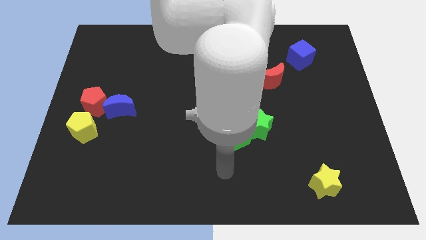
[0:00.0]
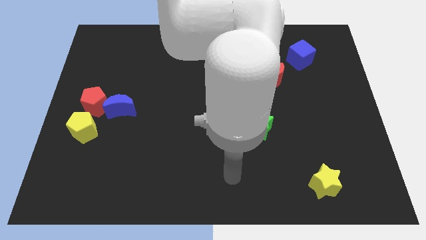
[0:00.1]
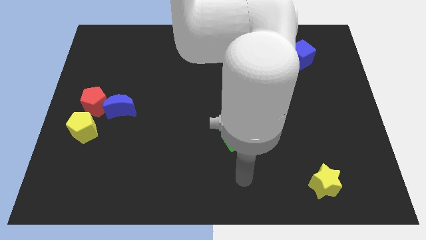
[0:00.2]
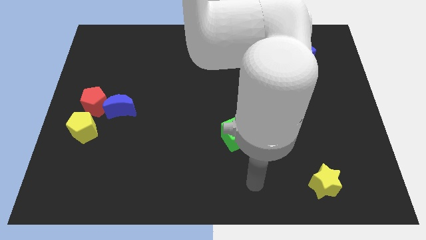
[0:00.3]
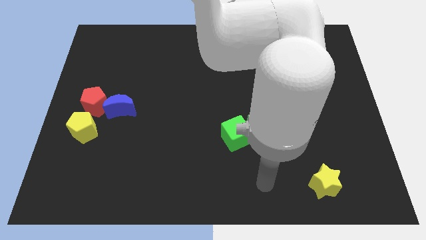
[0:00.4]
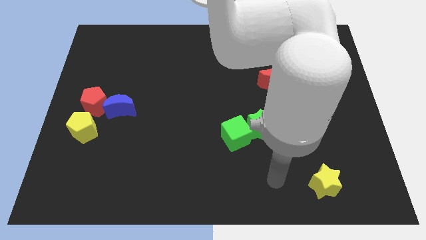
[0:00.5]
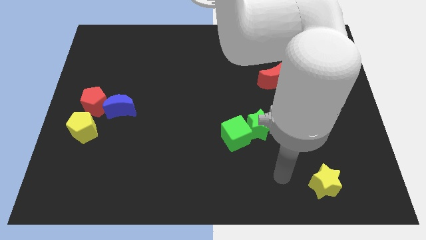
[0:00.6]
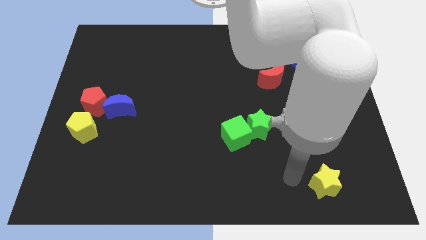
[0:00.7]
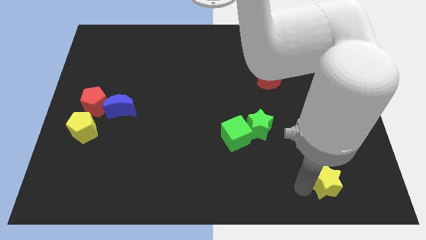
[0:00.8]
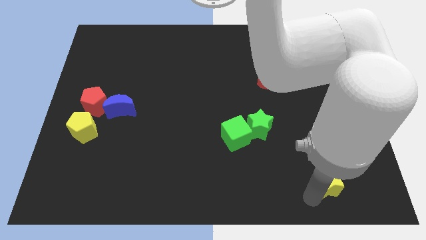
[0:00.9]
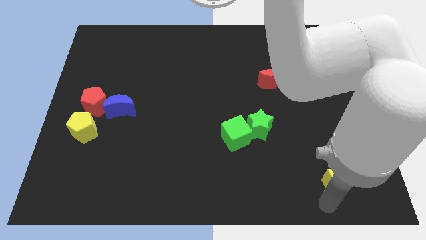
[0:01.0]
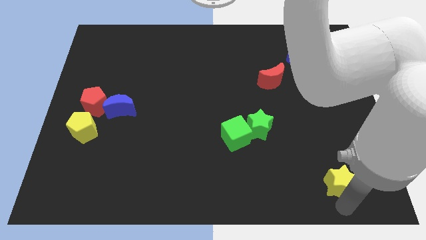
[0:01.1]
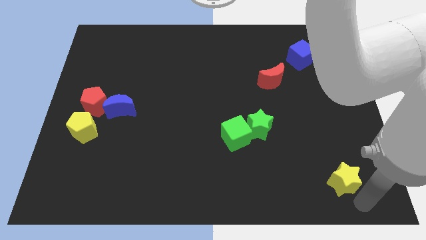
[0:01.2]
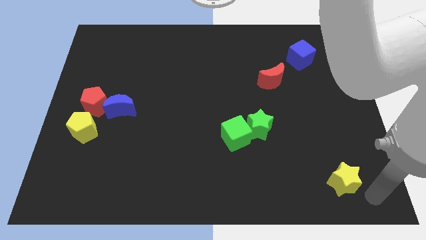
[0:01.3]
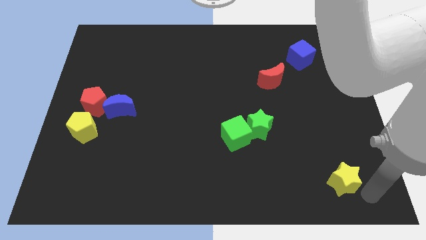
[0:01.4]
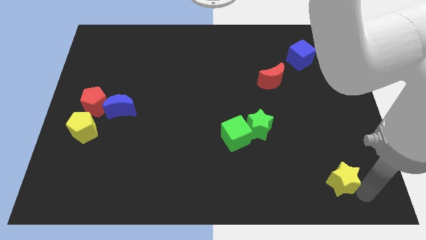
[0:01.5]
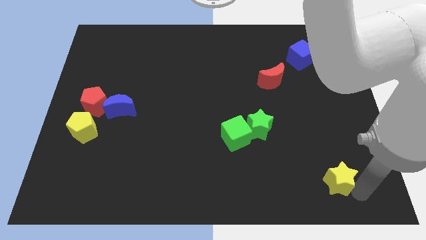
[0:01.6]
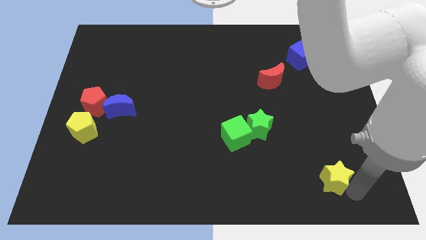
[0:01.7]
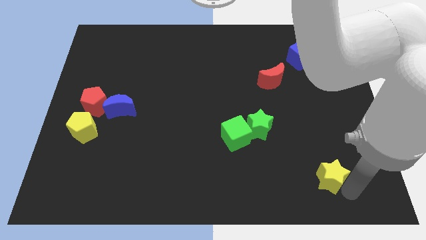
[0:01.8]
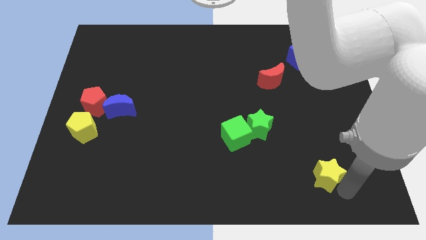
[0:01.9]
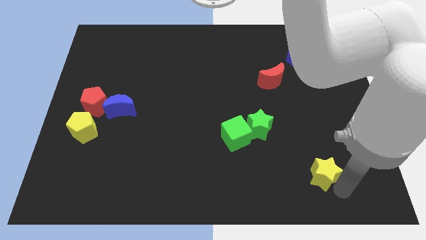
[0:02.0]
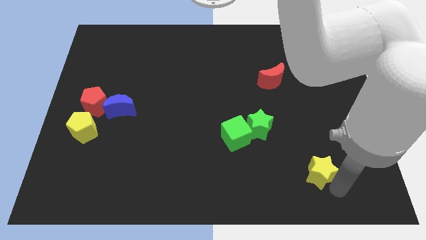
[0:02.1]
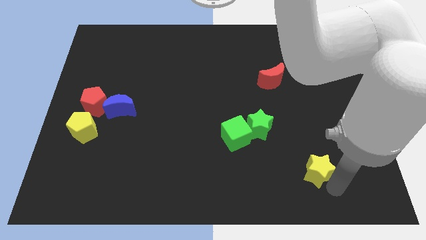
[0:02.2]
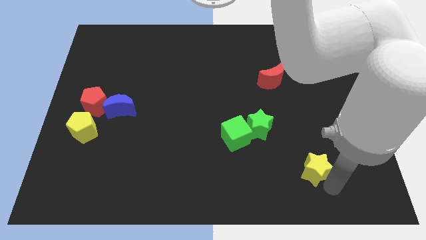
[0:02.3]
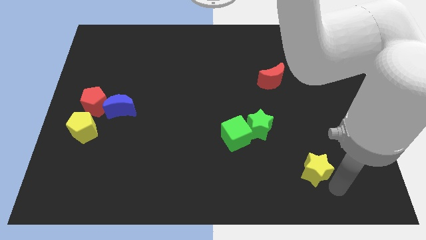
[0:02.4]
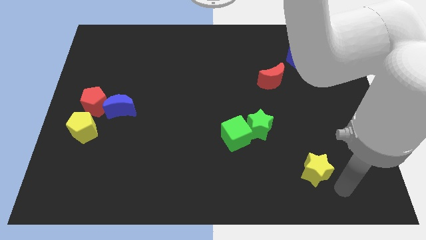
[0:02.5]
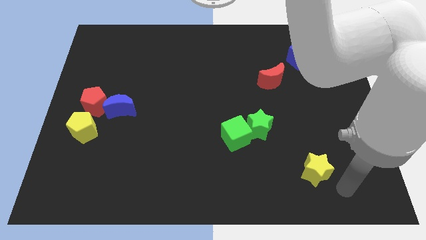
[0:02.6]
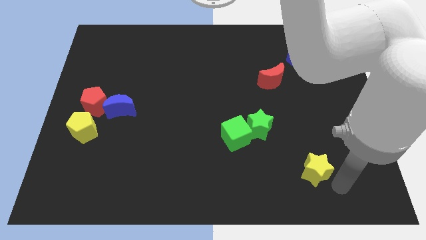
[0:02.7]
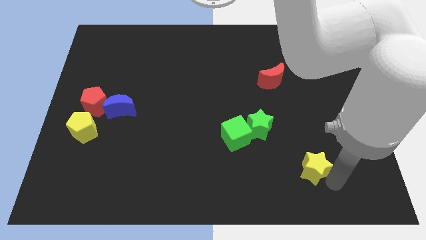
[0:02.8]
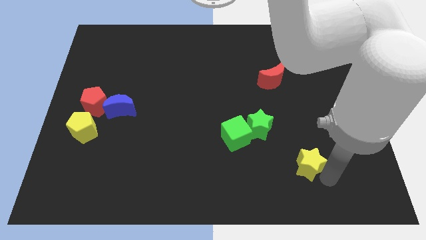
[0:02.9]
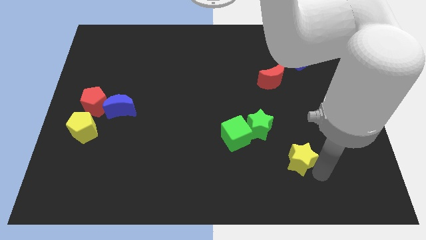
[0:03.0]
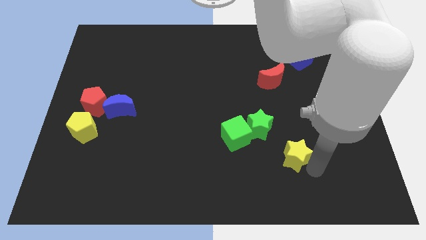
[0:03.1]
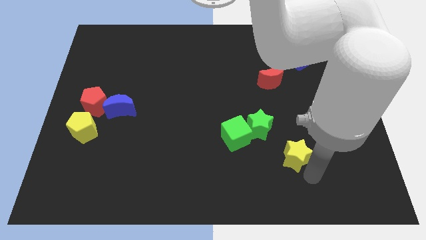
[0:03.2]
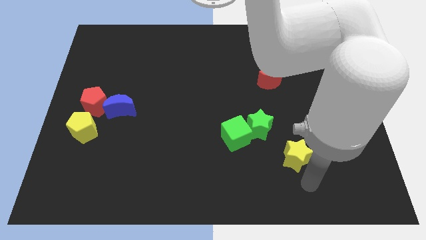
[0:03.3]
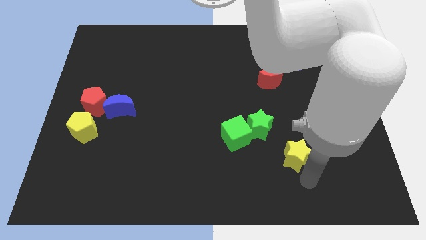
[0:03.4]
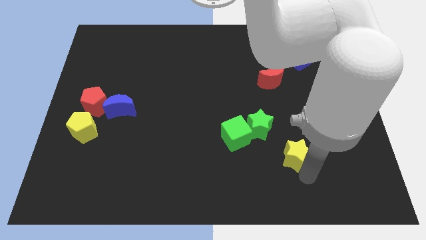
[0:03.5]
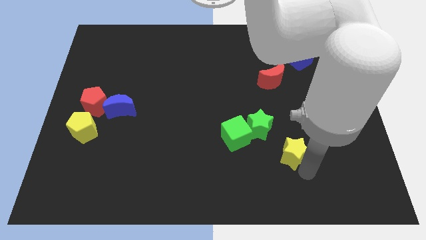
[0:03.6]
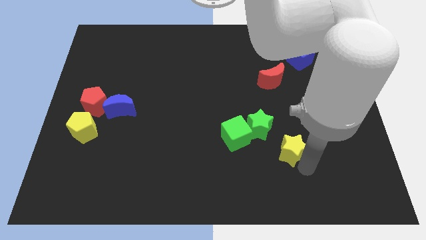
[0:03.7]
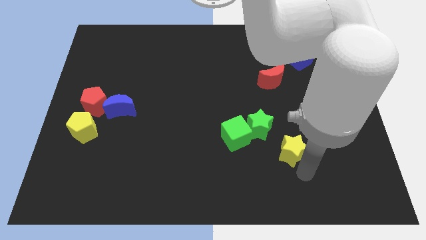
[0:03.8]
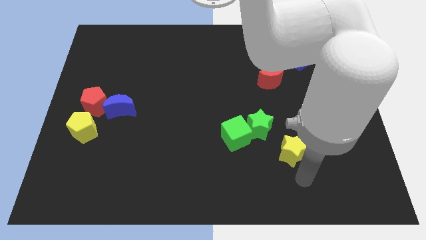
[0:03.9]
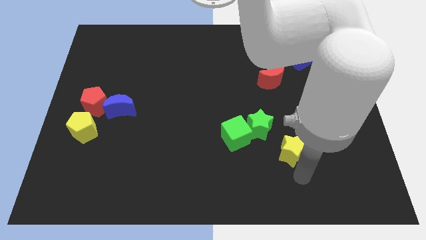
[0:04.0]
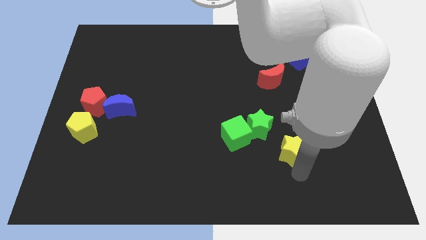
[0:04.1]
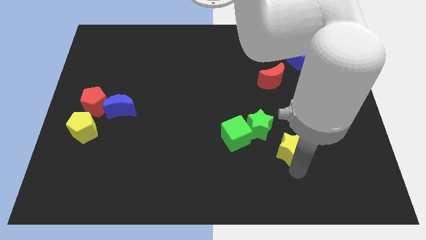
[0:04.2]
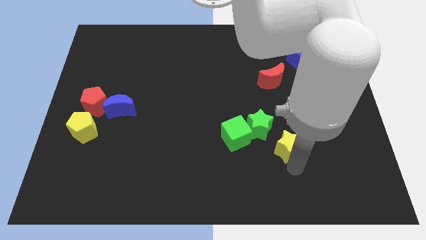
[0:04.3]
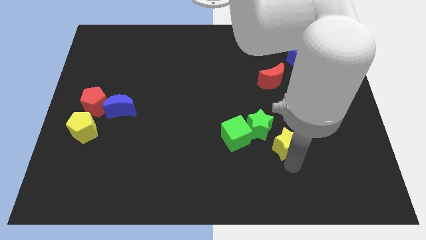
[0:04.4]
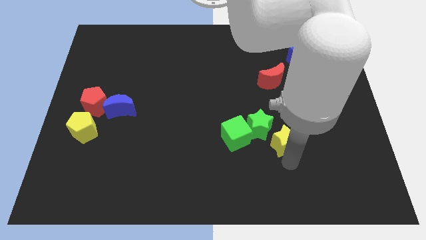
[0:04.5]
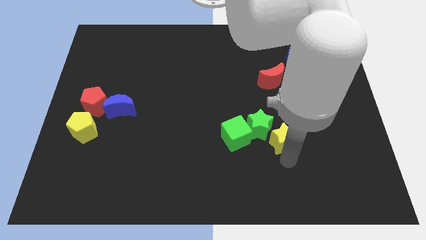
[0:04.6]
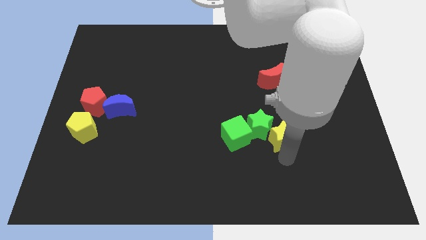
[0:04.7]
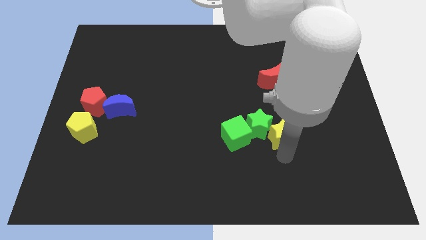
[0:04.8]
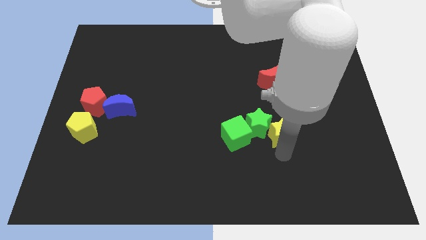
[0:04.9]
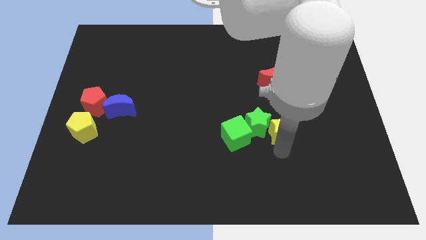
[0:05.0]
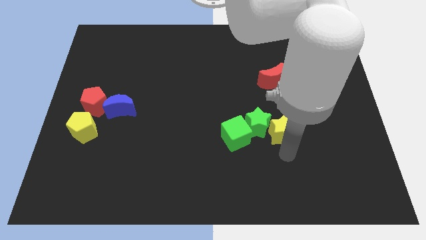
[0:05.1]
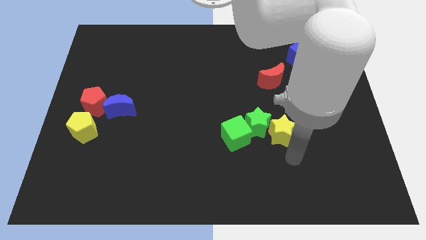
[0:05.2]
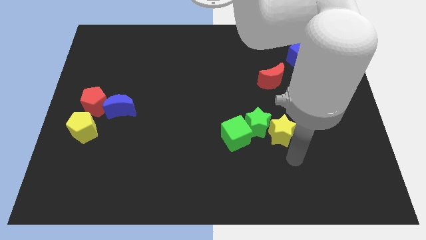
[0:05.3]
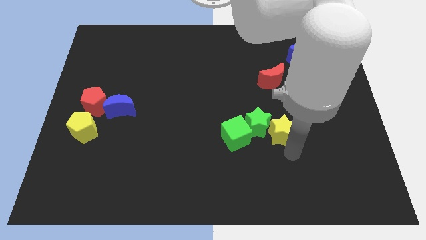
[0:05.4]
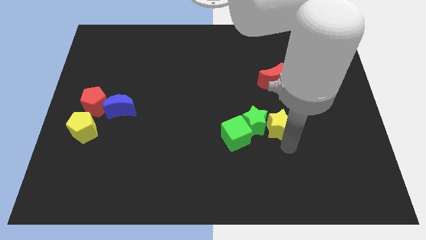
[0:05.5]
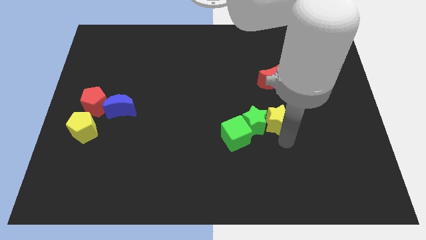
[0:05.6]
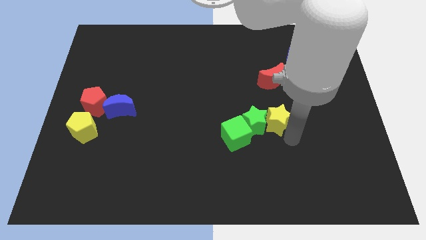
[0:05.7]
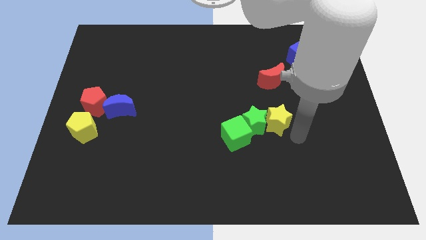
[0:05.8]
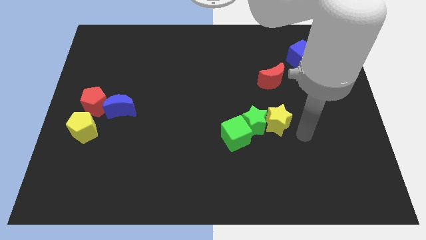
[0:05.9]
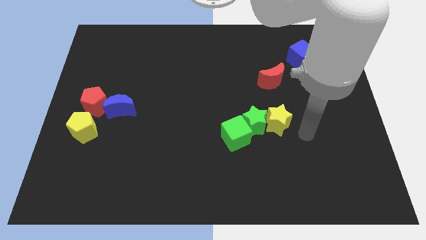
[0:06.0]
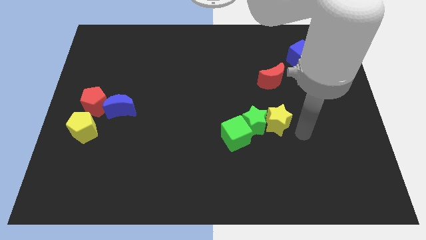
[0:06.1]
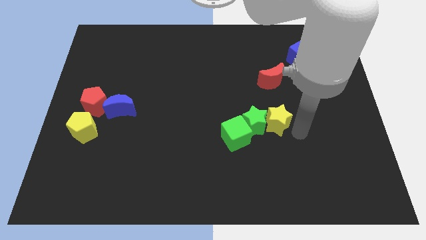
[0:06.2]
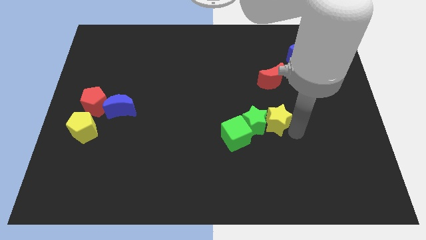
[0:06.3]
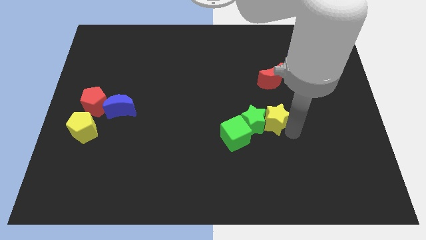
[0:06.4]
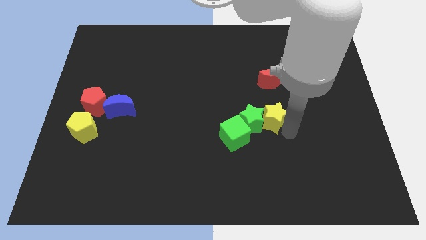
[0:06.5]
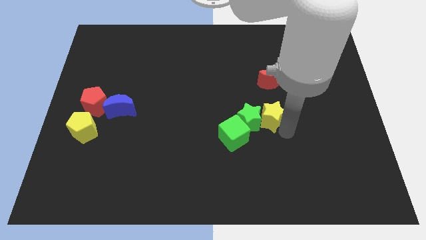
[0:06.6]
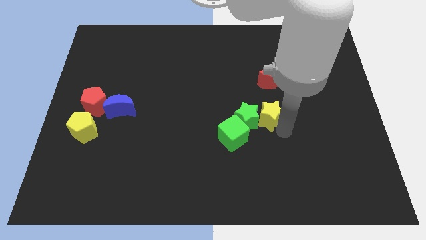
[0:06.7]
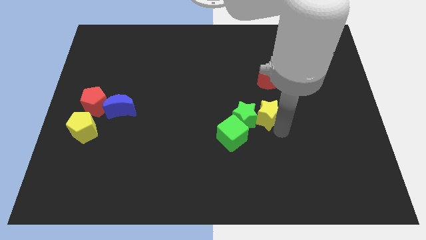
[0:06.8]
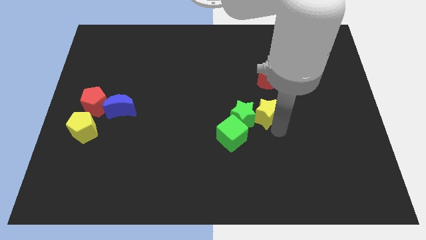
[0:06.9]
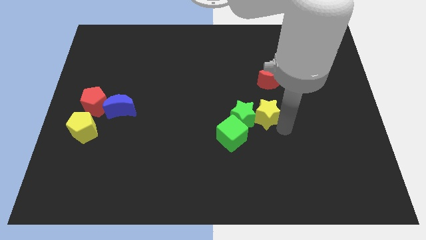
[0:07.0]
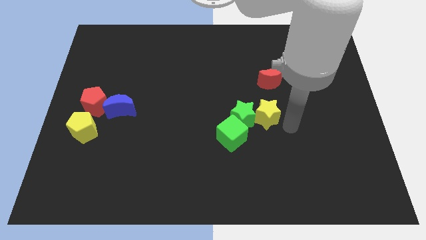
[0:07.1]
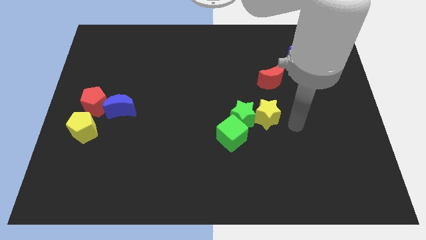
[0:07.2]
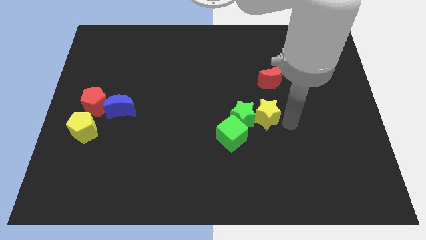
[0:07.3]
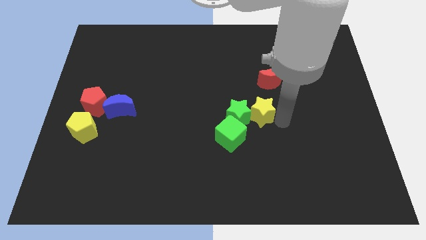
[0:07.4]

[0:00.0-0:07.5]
push the yellow star to the middle
